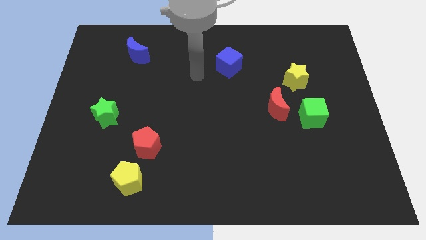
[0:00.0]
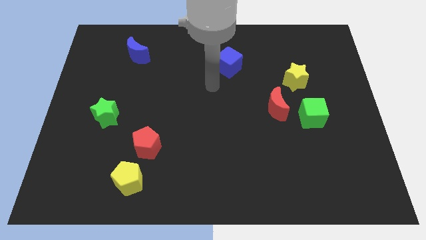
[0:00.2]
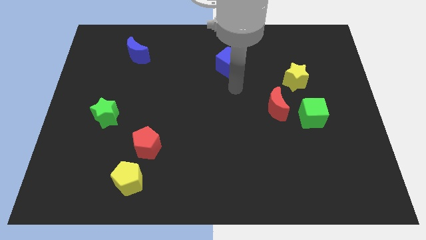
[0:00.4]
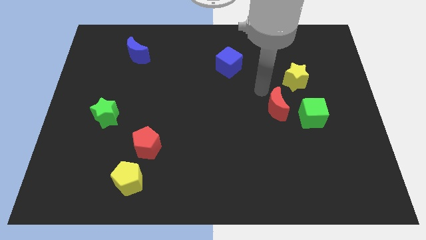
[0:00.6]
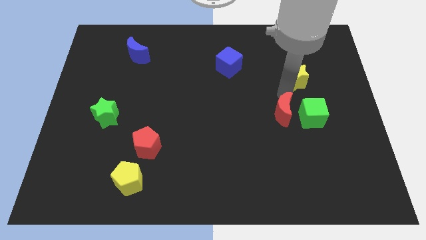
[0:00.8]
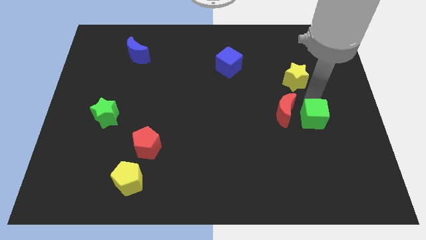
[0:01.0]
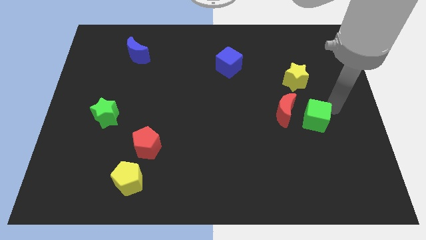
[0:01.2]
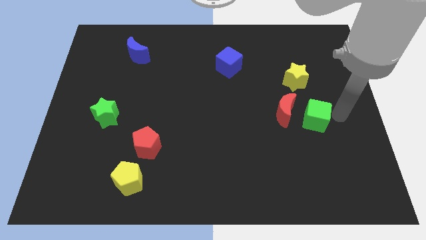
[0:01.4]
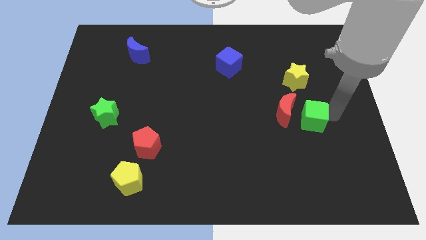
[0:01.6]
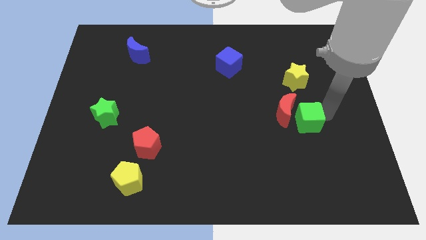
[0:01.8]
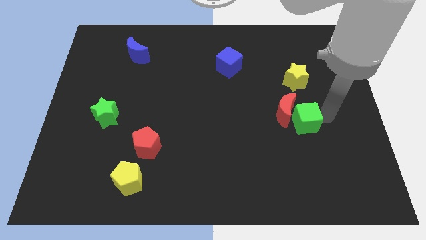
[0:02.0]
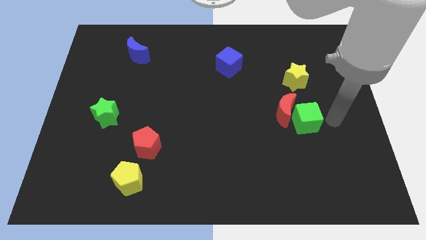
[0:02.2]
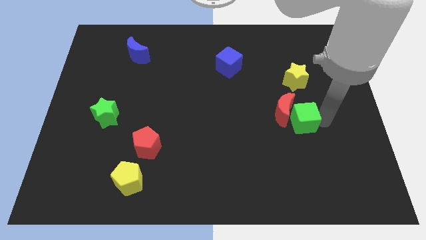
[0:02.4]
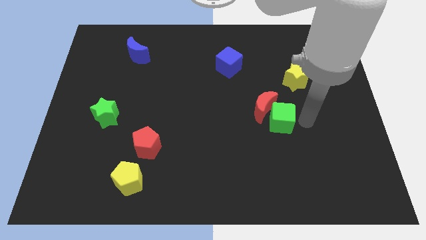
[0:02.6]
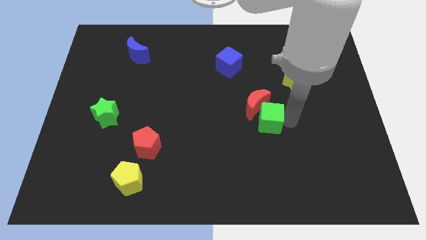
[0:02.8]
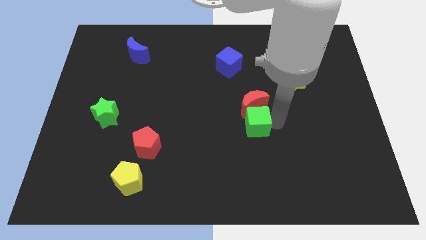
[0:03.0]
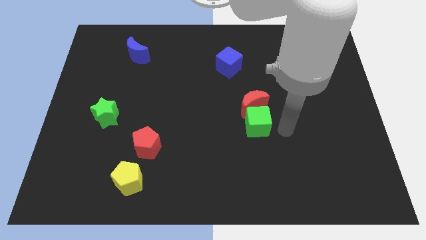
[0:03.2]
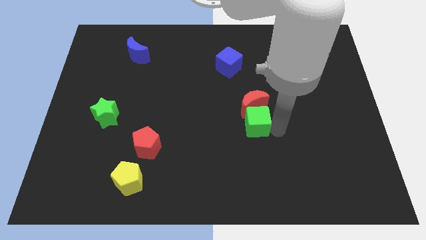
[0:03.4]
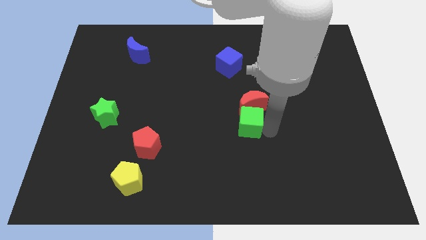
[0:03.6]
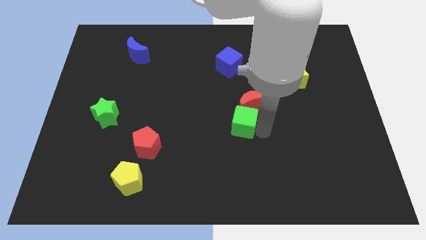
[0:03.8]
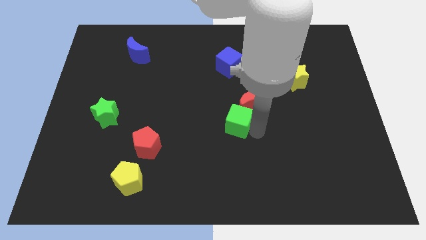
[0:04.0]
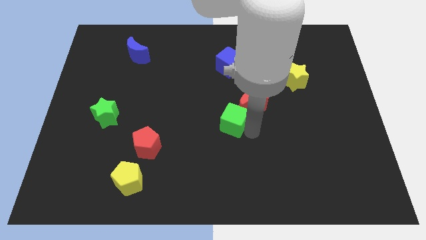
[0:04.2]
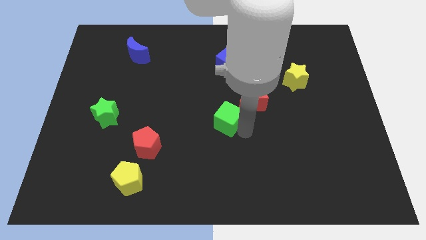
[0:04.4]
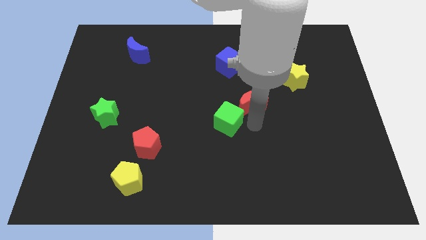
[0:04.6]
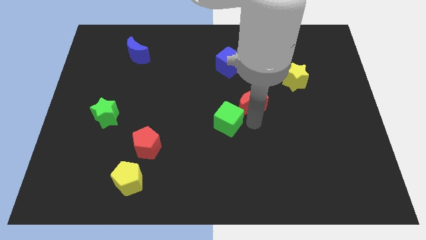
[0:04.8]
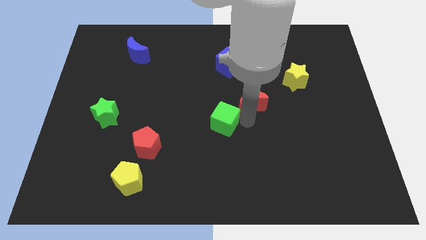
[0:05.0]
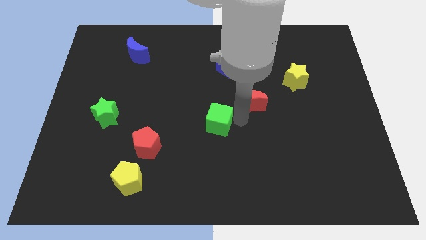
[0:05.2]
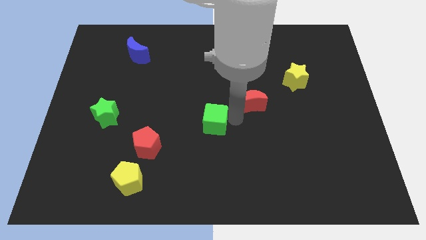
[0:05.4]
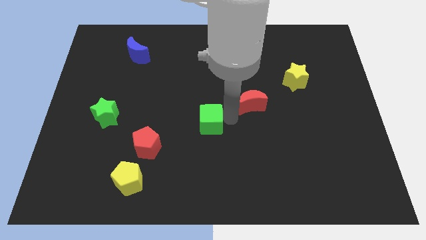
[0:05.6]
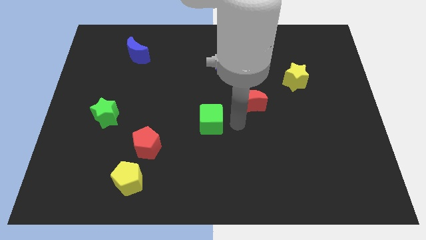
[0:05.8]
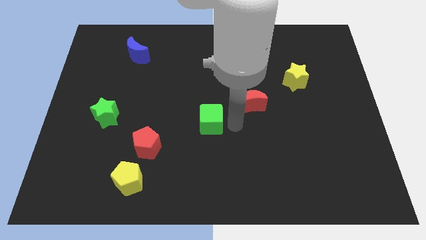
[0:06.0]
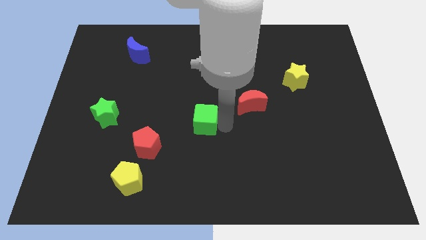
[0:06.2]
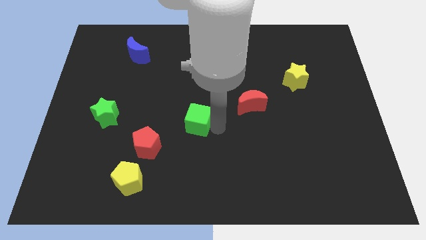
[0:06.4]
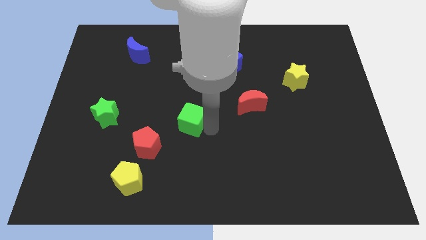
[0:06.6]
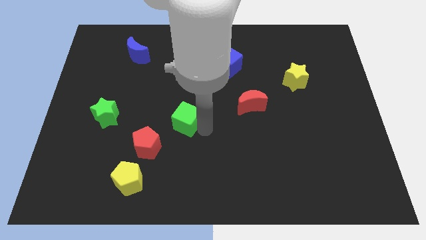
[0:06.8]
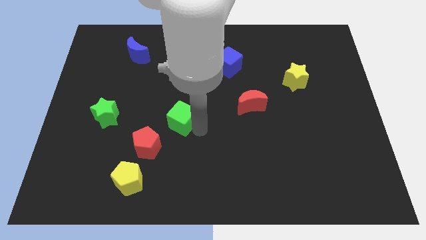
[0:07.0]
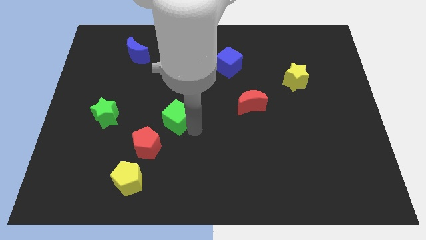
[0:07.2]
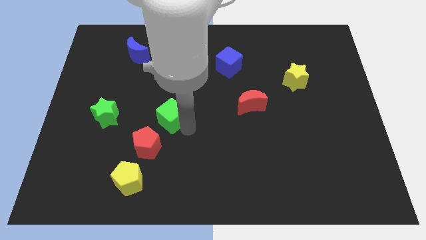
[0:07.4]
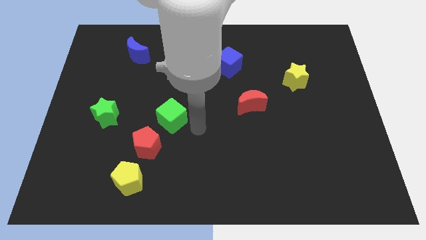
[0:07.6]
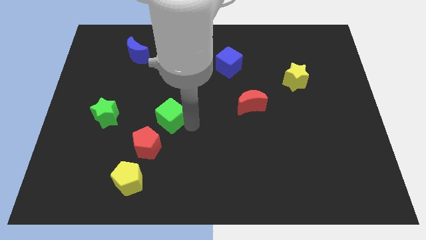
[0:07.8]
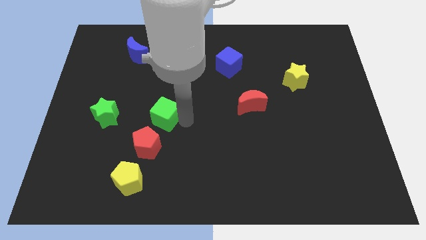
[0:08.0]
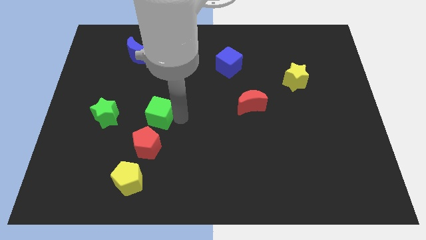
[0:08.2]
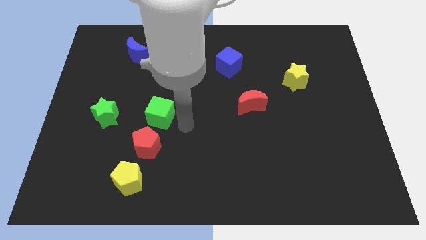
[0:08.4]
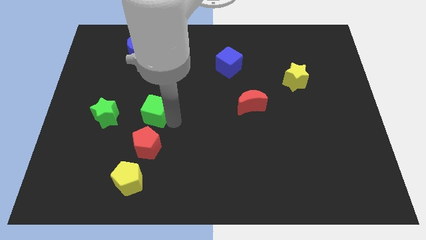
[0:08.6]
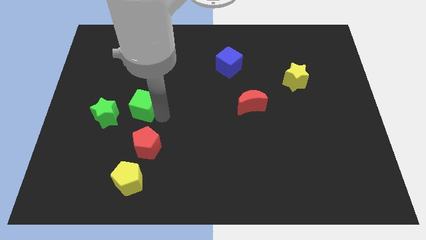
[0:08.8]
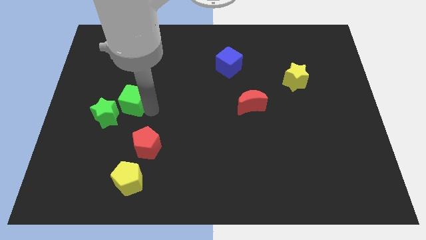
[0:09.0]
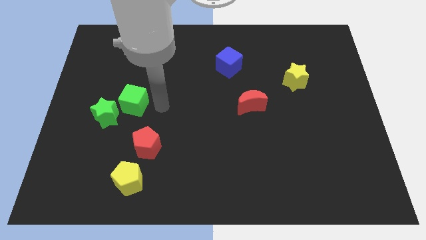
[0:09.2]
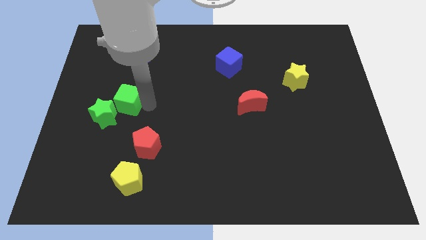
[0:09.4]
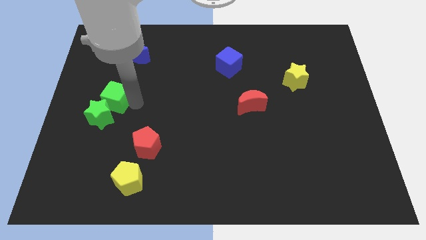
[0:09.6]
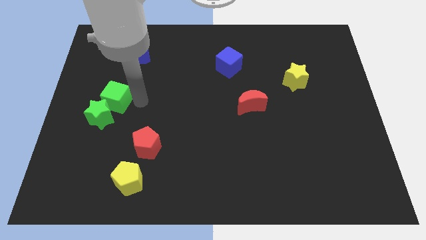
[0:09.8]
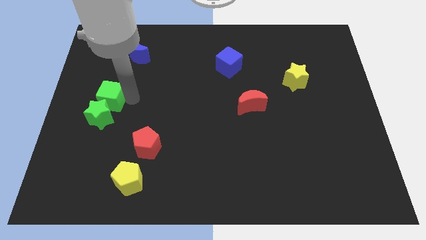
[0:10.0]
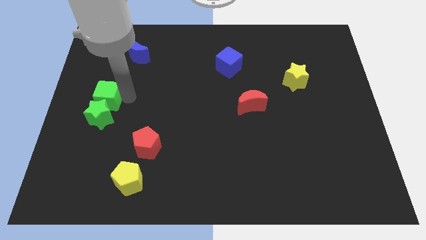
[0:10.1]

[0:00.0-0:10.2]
move the green cube to the center left

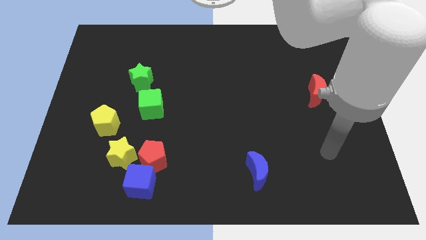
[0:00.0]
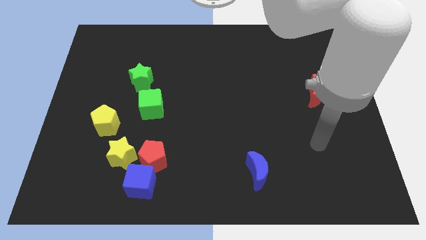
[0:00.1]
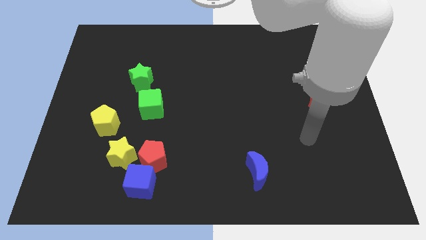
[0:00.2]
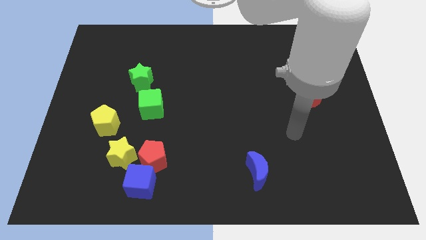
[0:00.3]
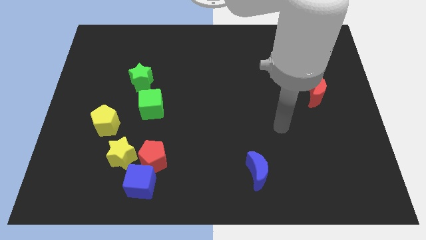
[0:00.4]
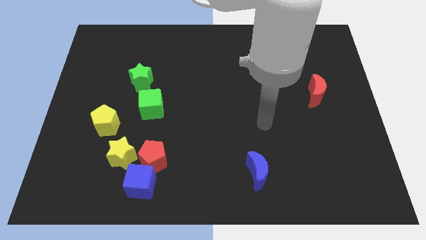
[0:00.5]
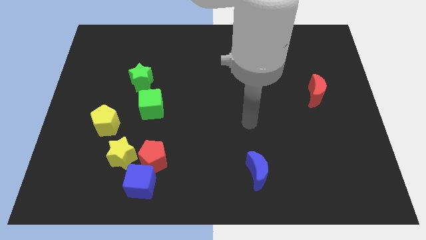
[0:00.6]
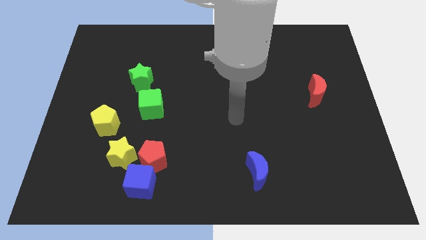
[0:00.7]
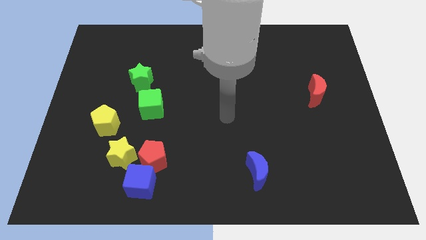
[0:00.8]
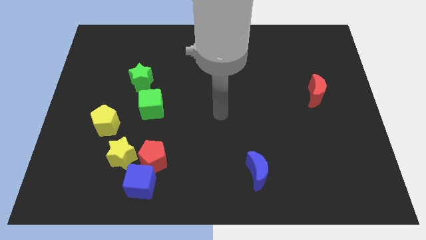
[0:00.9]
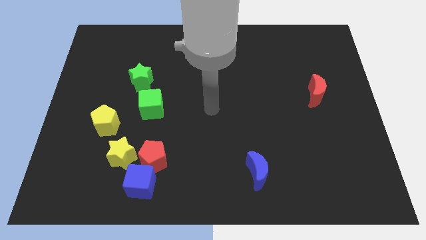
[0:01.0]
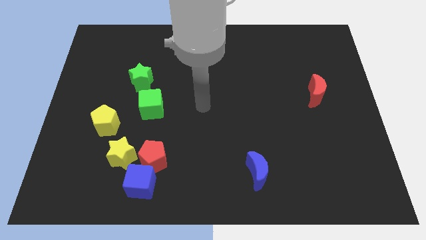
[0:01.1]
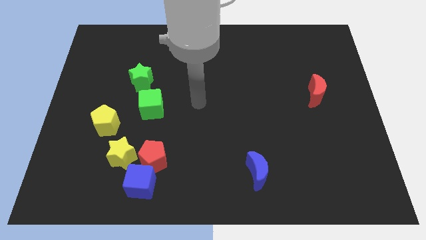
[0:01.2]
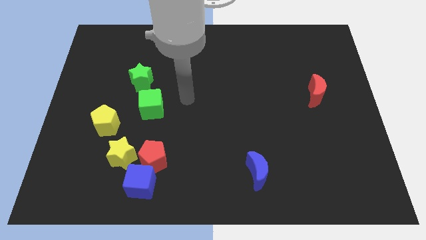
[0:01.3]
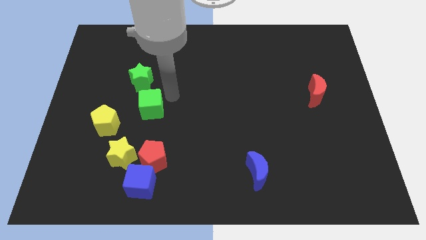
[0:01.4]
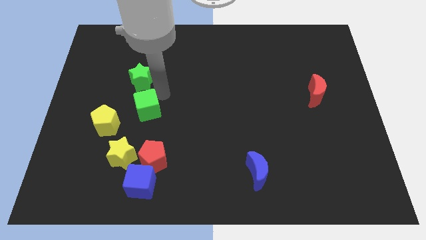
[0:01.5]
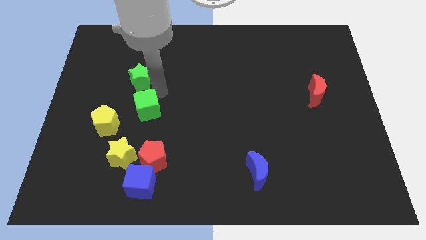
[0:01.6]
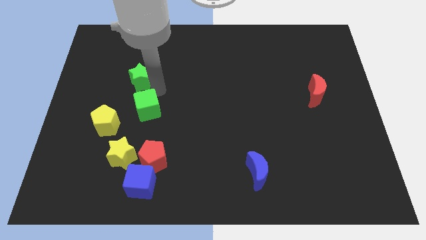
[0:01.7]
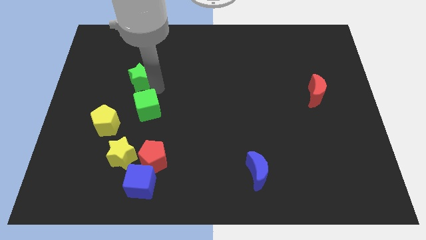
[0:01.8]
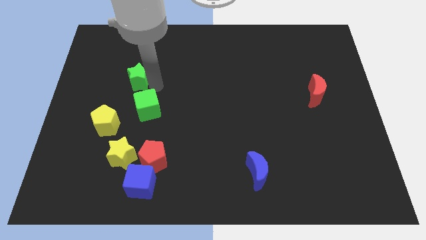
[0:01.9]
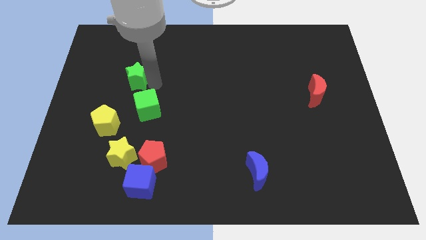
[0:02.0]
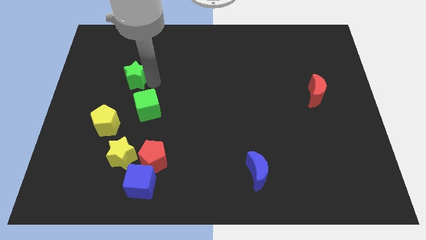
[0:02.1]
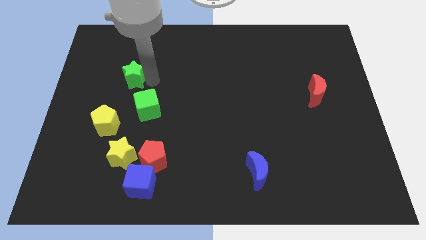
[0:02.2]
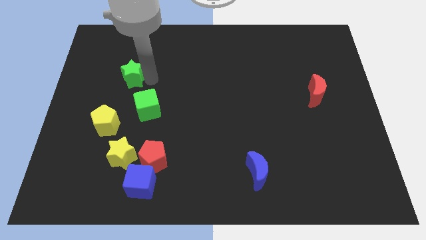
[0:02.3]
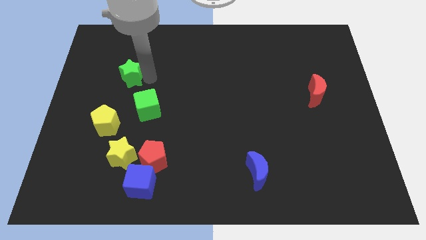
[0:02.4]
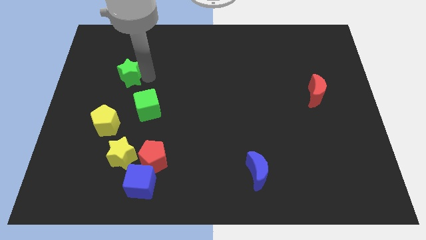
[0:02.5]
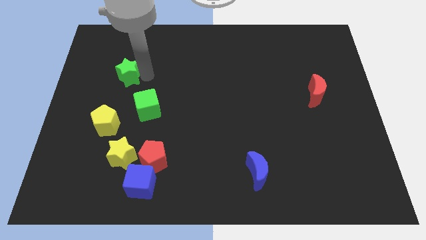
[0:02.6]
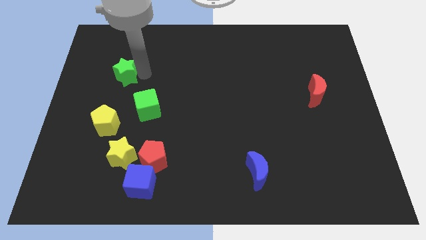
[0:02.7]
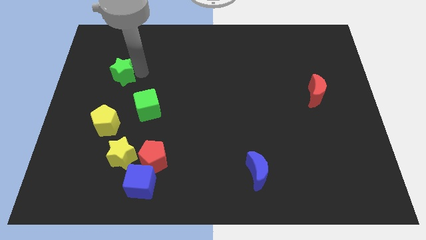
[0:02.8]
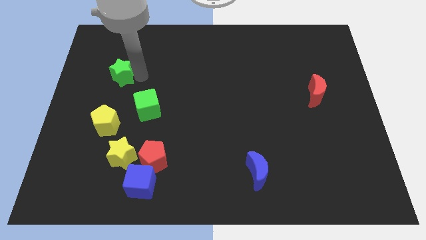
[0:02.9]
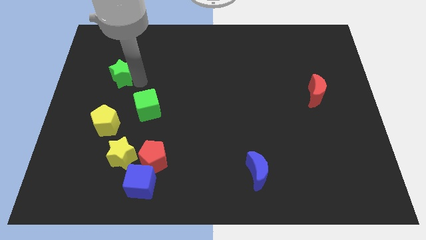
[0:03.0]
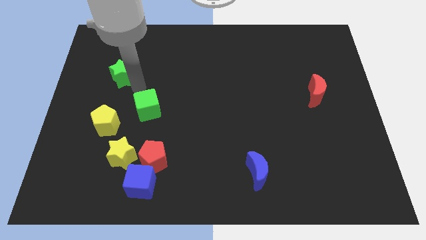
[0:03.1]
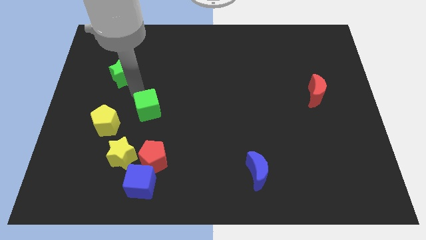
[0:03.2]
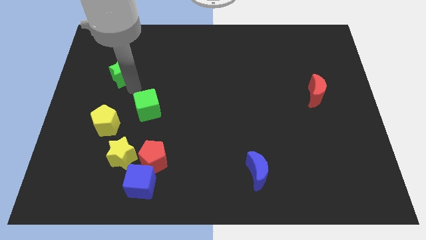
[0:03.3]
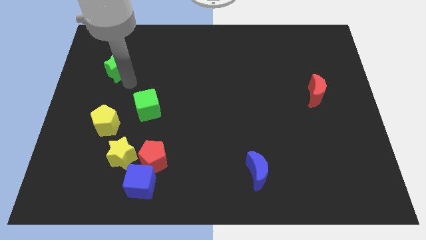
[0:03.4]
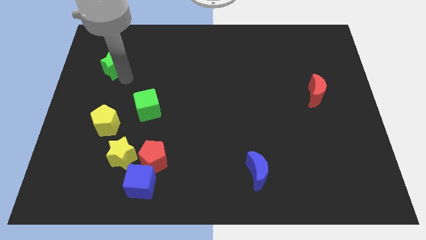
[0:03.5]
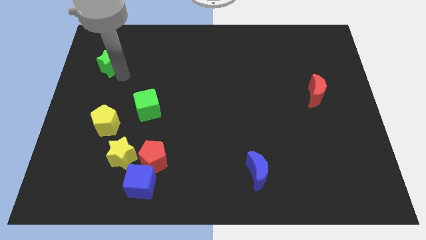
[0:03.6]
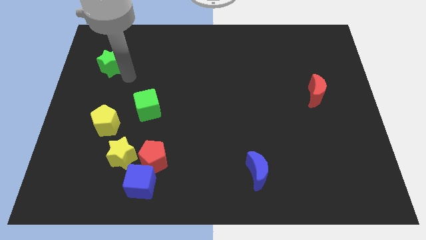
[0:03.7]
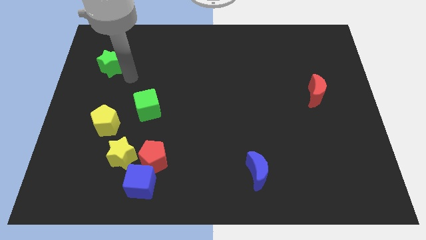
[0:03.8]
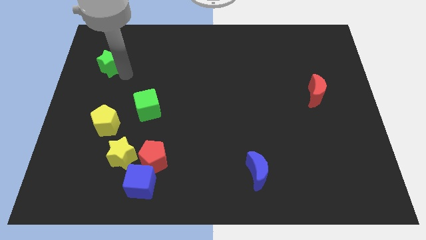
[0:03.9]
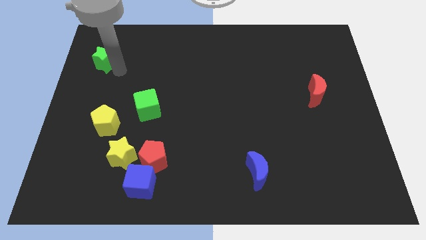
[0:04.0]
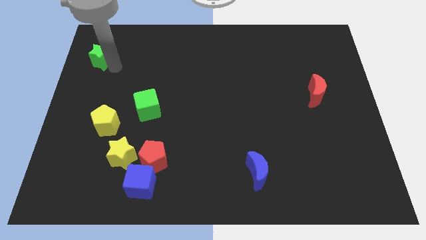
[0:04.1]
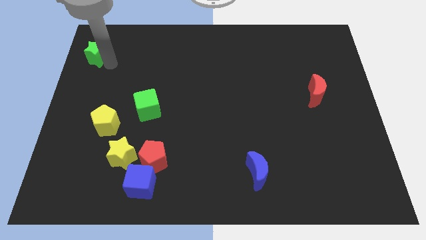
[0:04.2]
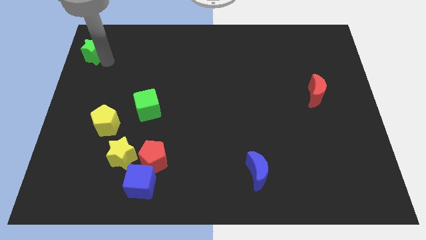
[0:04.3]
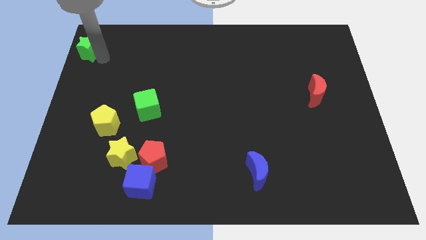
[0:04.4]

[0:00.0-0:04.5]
put the green star to the top left of the board
